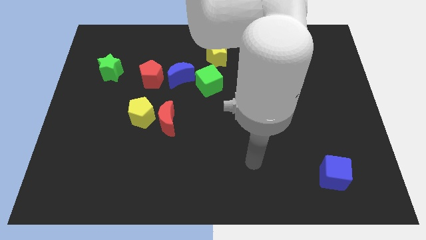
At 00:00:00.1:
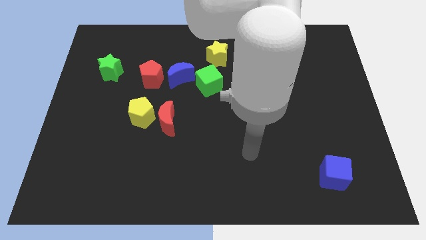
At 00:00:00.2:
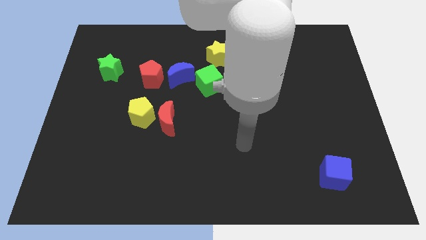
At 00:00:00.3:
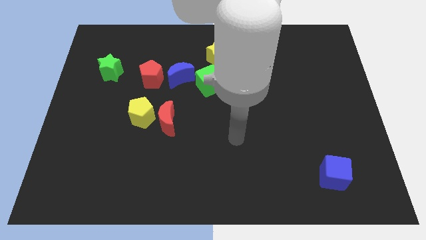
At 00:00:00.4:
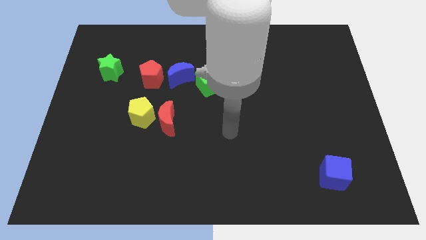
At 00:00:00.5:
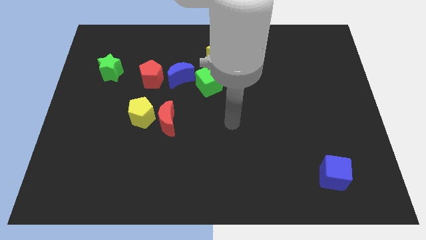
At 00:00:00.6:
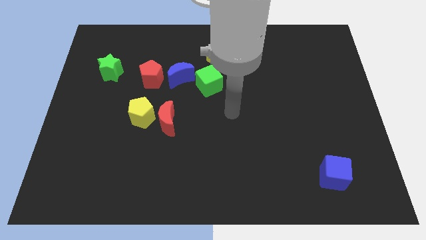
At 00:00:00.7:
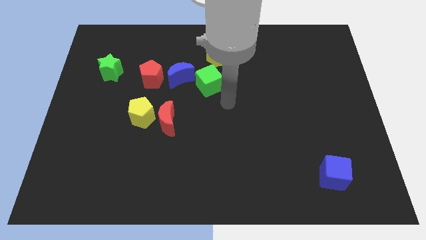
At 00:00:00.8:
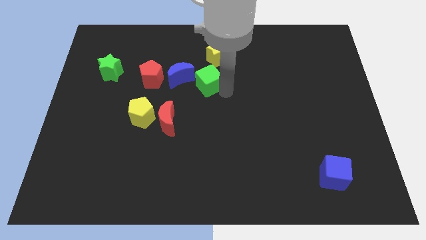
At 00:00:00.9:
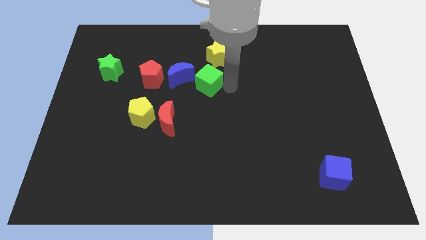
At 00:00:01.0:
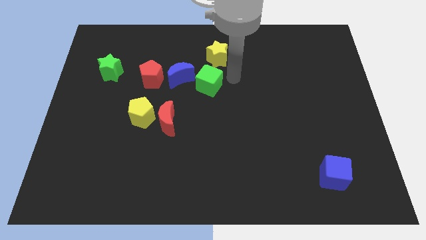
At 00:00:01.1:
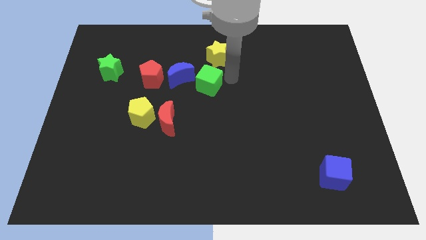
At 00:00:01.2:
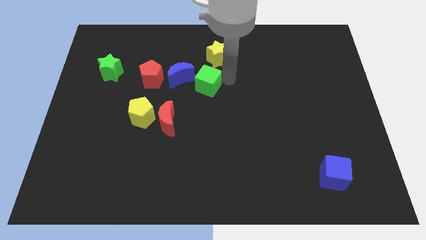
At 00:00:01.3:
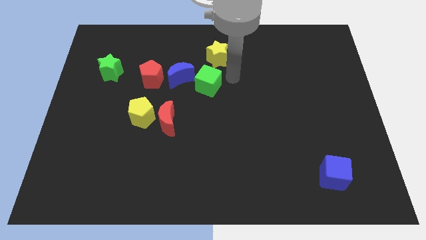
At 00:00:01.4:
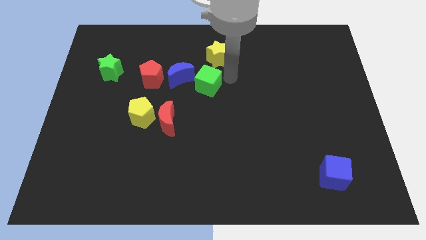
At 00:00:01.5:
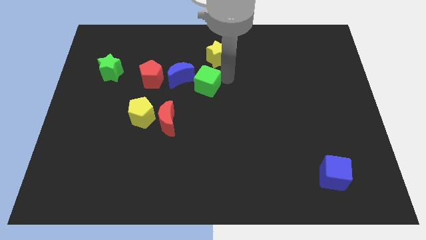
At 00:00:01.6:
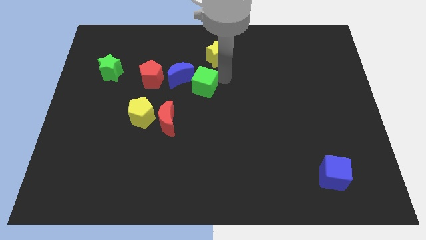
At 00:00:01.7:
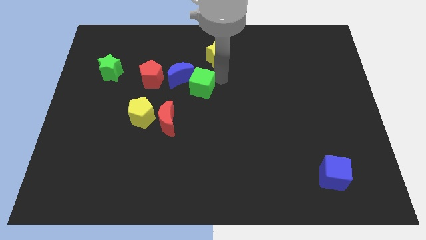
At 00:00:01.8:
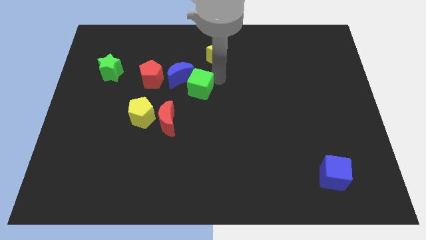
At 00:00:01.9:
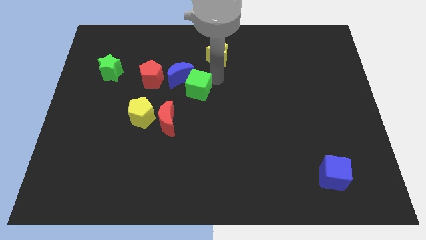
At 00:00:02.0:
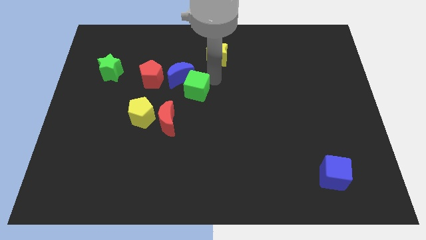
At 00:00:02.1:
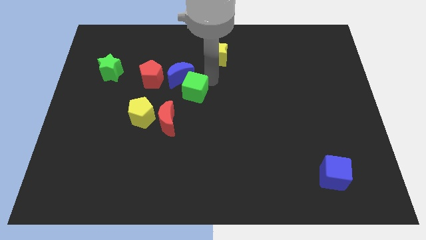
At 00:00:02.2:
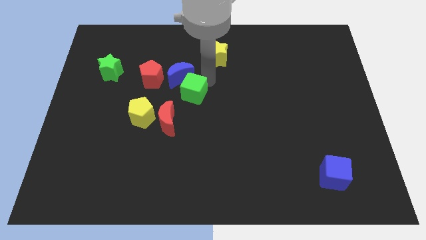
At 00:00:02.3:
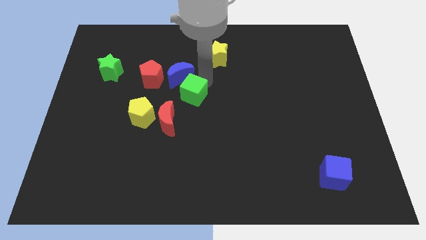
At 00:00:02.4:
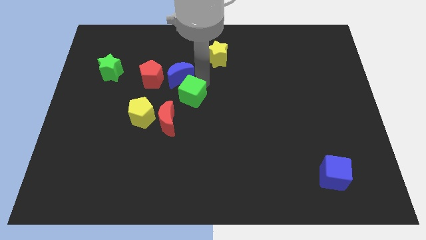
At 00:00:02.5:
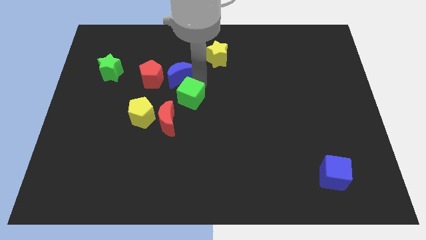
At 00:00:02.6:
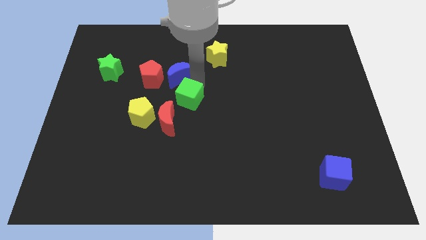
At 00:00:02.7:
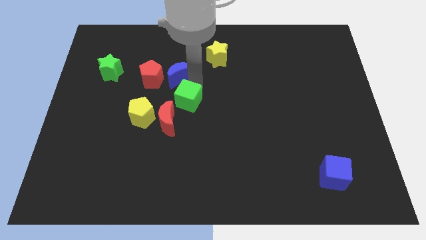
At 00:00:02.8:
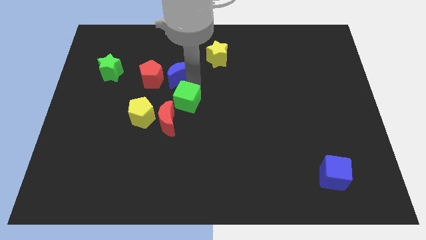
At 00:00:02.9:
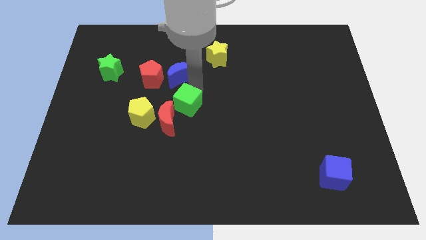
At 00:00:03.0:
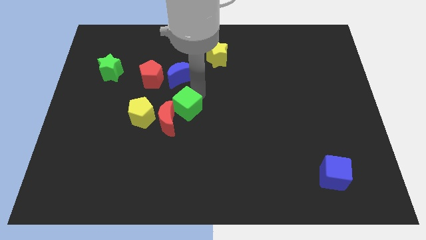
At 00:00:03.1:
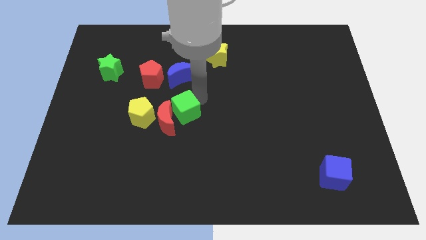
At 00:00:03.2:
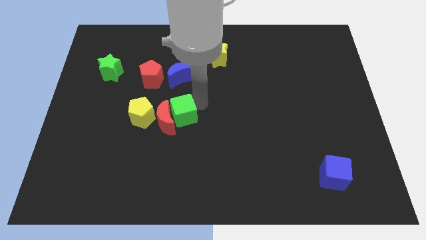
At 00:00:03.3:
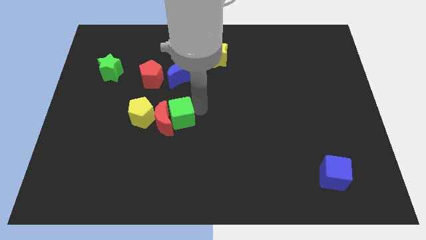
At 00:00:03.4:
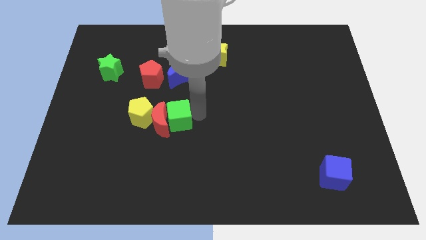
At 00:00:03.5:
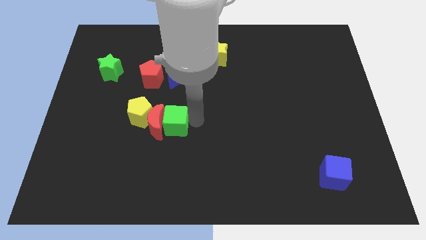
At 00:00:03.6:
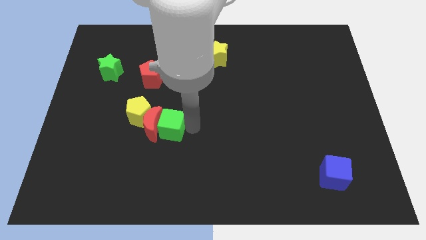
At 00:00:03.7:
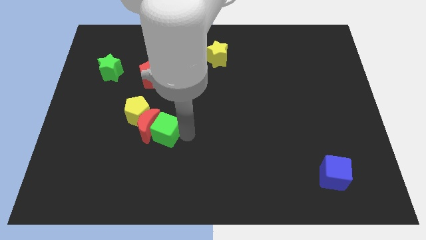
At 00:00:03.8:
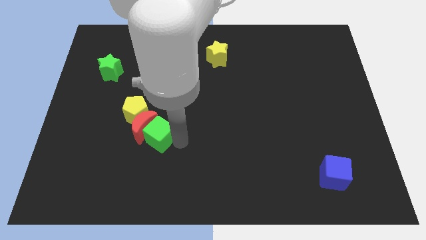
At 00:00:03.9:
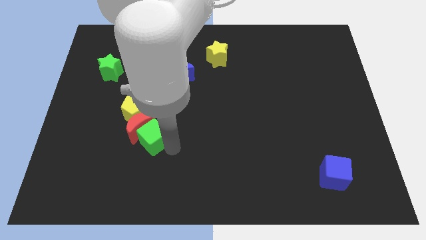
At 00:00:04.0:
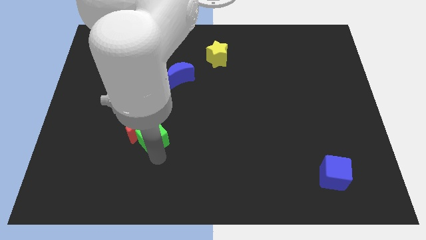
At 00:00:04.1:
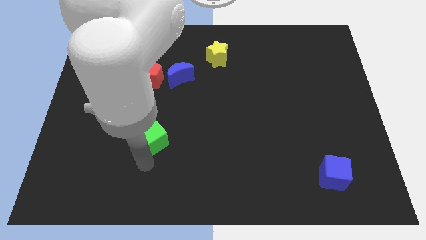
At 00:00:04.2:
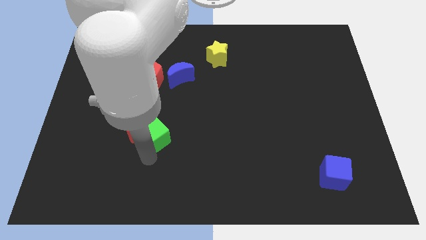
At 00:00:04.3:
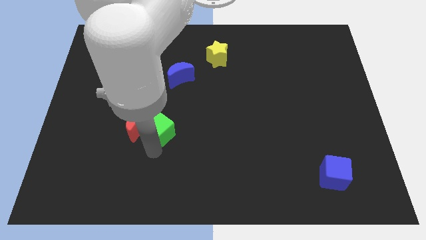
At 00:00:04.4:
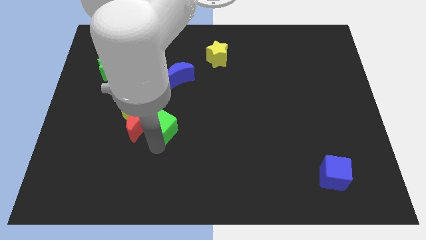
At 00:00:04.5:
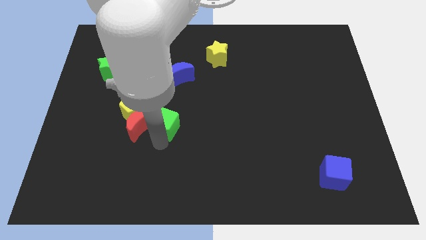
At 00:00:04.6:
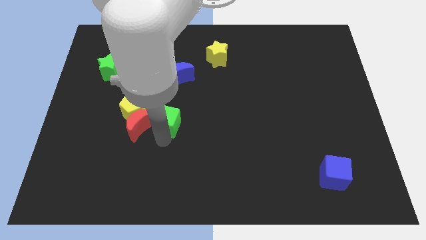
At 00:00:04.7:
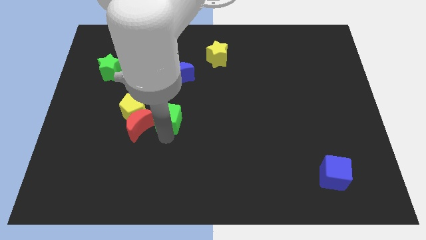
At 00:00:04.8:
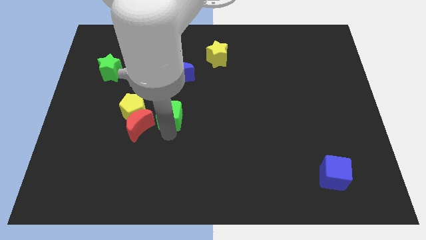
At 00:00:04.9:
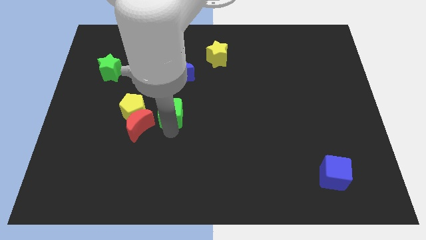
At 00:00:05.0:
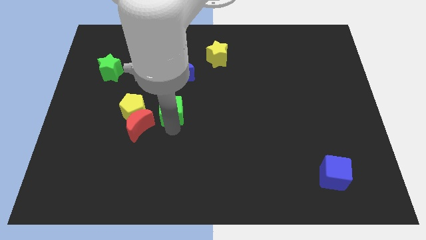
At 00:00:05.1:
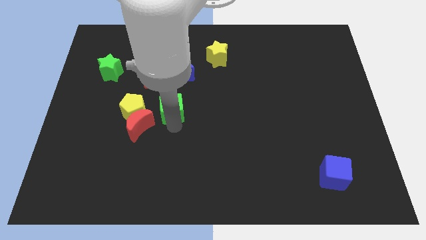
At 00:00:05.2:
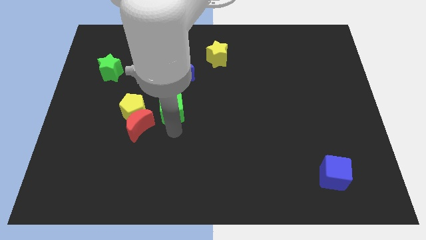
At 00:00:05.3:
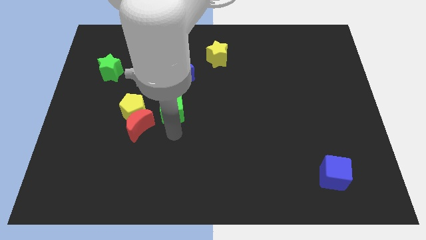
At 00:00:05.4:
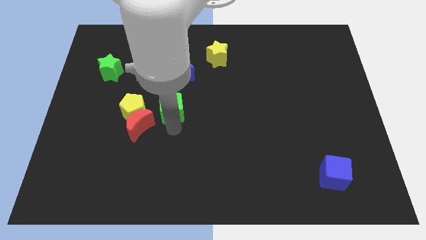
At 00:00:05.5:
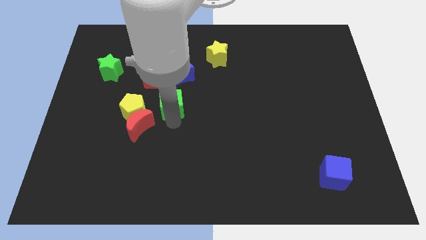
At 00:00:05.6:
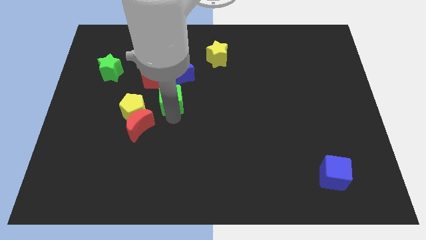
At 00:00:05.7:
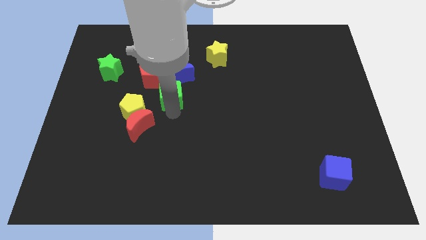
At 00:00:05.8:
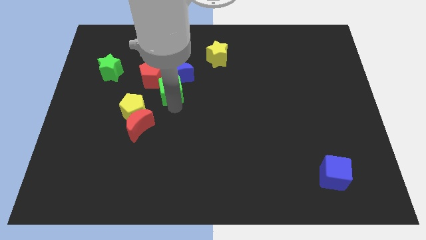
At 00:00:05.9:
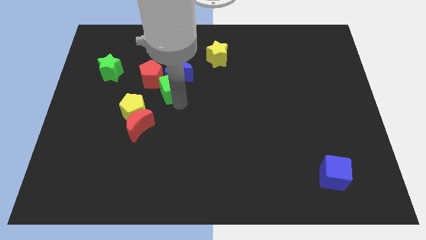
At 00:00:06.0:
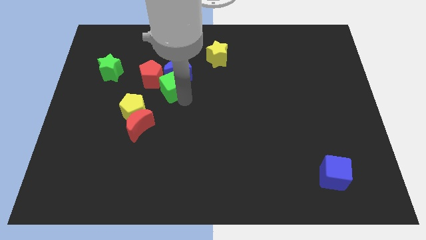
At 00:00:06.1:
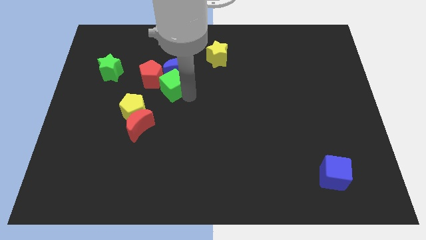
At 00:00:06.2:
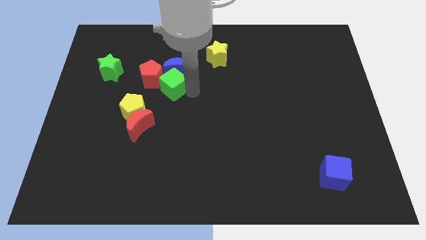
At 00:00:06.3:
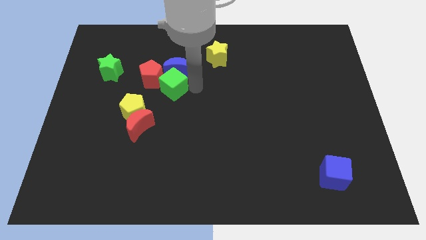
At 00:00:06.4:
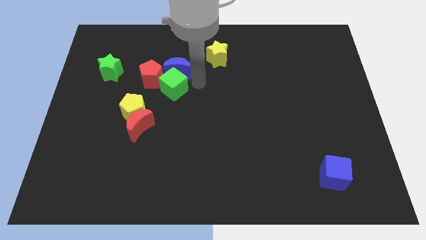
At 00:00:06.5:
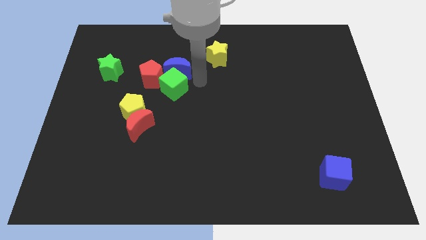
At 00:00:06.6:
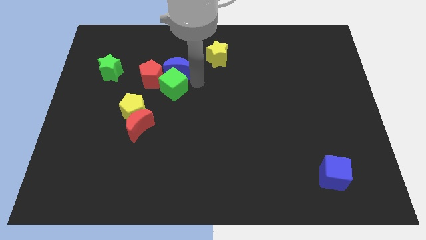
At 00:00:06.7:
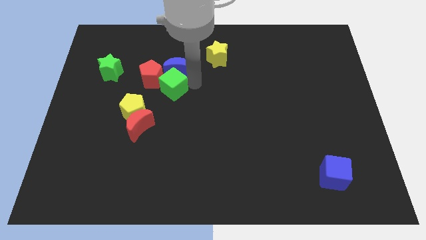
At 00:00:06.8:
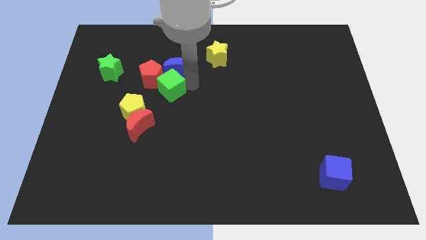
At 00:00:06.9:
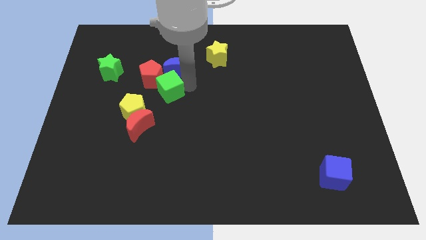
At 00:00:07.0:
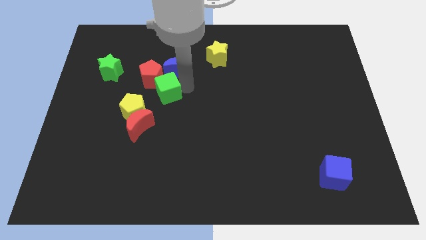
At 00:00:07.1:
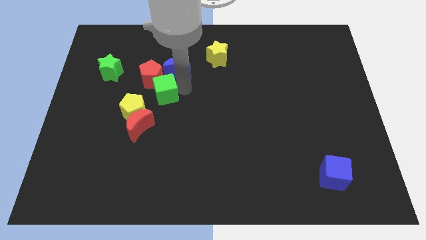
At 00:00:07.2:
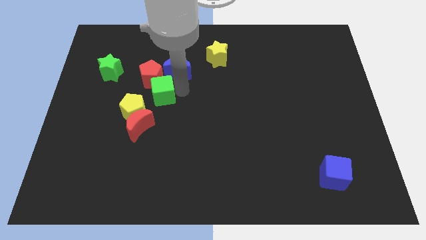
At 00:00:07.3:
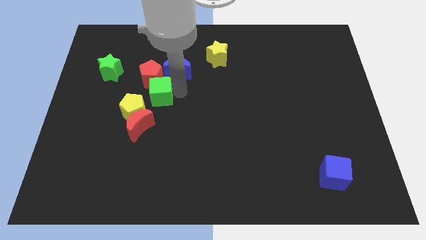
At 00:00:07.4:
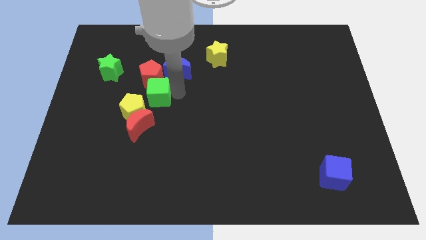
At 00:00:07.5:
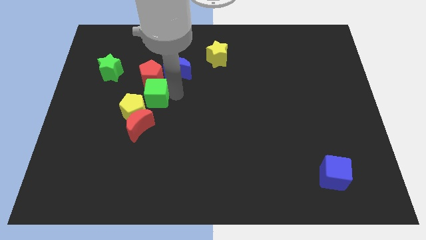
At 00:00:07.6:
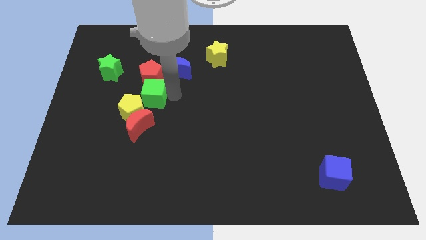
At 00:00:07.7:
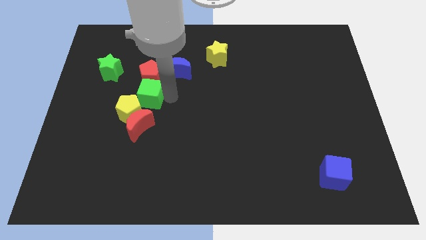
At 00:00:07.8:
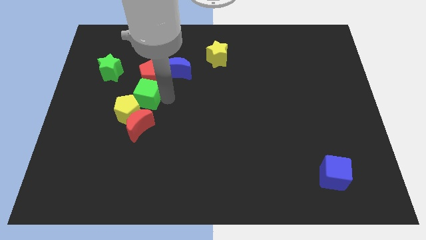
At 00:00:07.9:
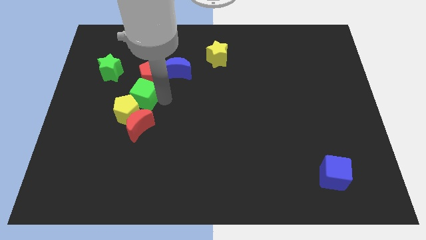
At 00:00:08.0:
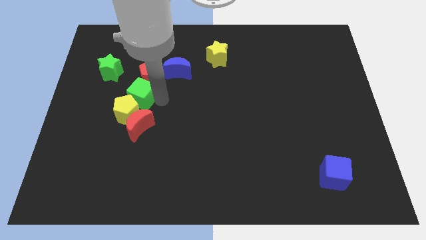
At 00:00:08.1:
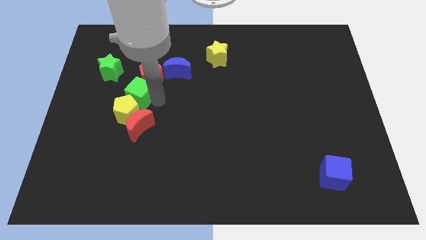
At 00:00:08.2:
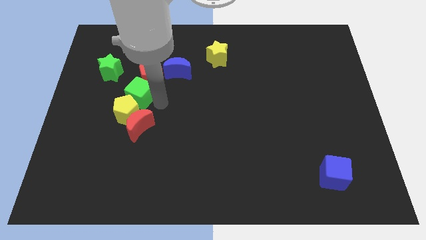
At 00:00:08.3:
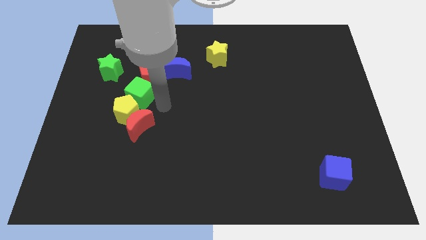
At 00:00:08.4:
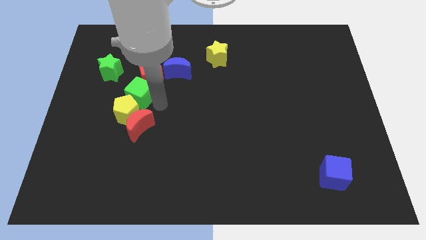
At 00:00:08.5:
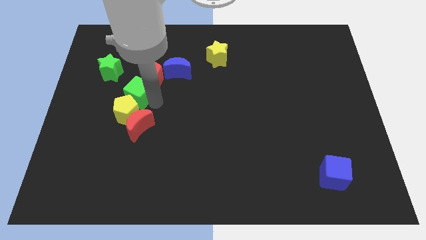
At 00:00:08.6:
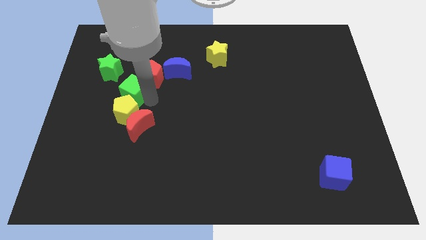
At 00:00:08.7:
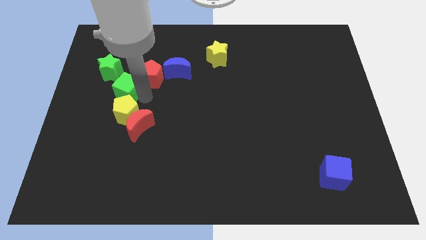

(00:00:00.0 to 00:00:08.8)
move the green cube just left of the red pentagon
